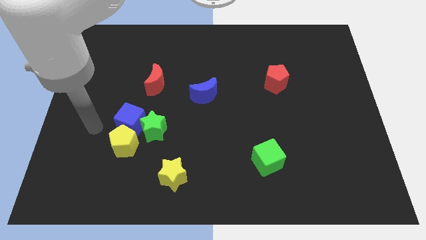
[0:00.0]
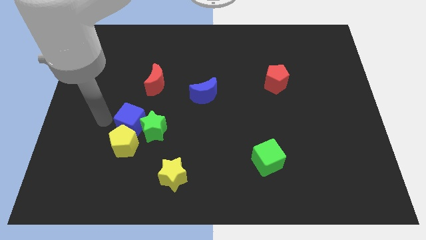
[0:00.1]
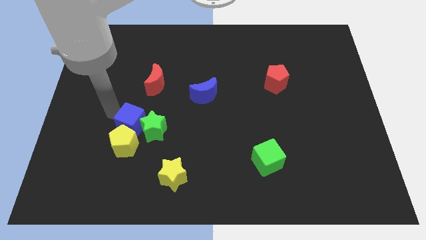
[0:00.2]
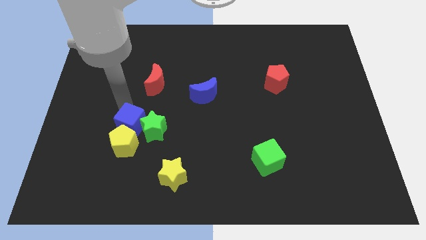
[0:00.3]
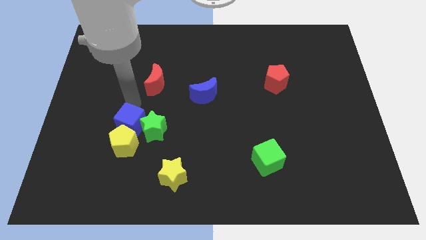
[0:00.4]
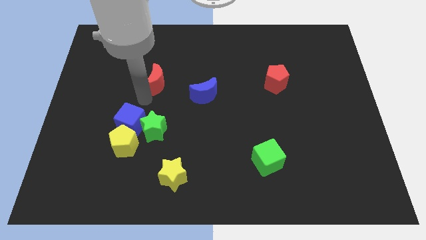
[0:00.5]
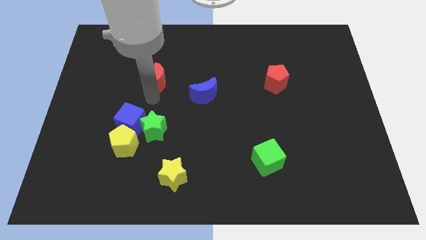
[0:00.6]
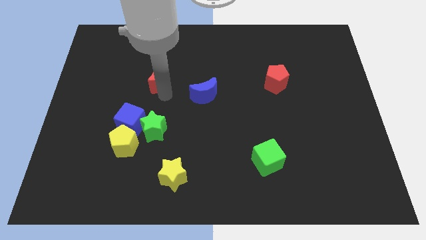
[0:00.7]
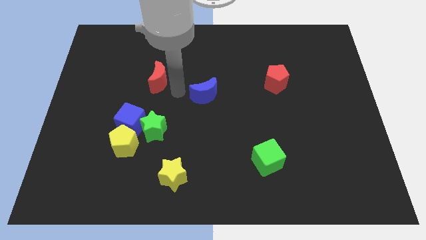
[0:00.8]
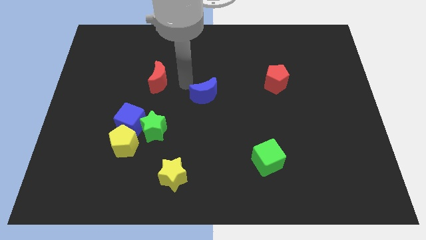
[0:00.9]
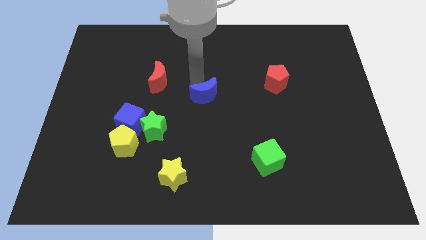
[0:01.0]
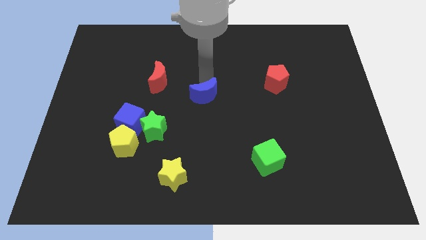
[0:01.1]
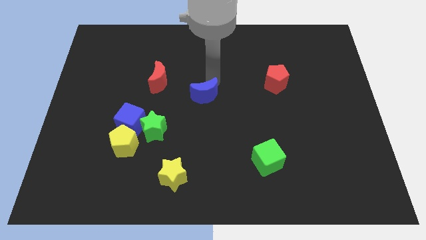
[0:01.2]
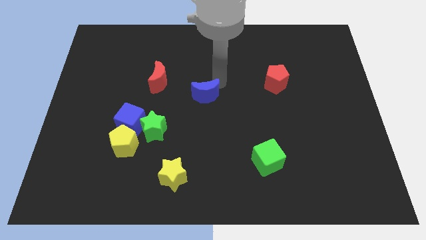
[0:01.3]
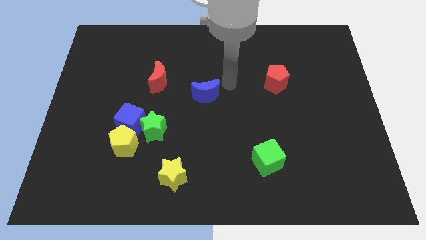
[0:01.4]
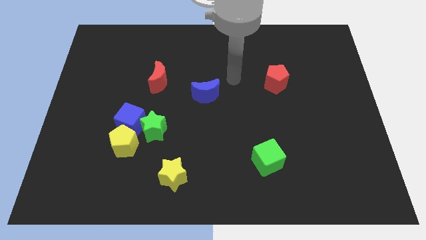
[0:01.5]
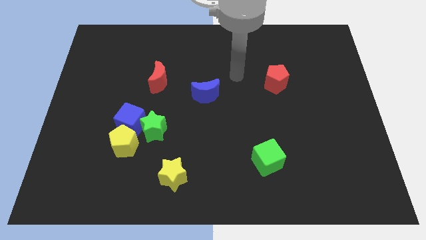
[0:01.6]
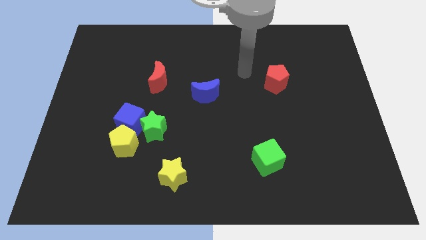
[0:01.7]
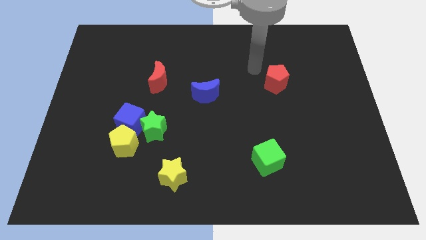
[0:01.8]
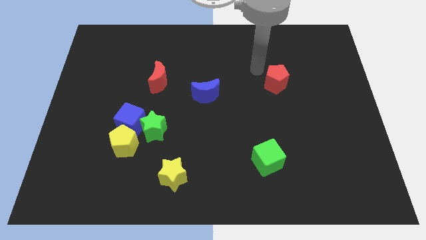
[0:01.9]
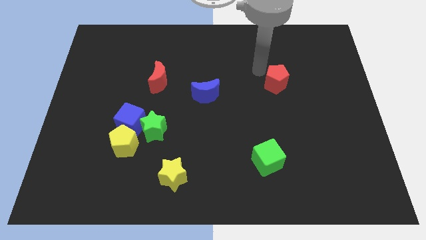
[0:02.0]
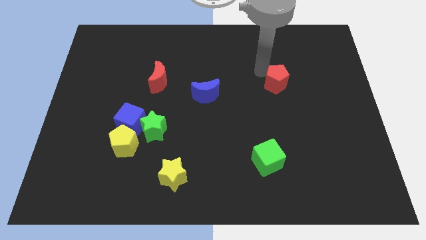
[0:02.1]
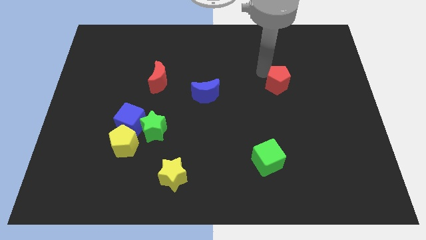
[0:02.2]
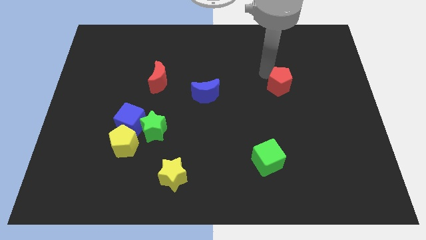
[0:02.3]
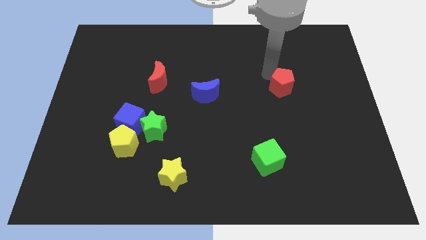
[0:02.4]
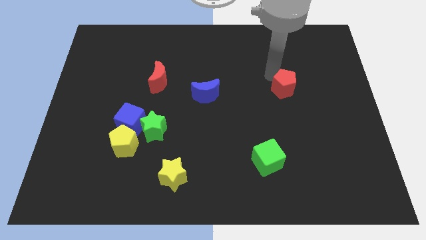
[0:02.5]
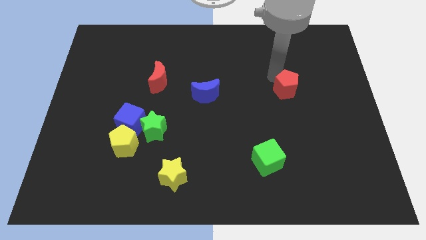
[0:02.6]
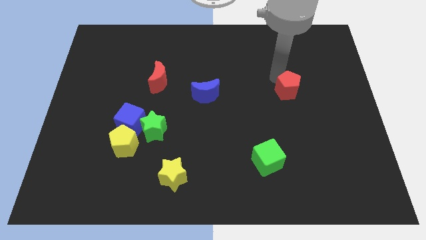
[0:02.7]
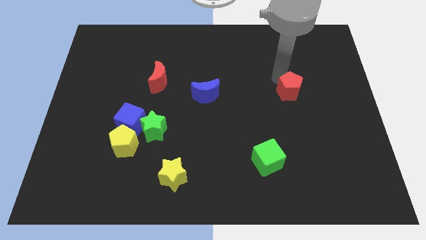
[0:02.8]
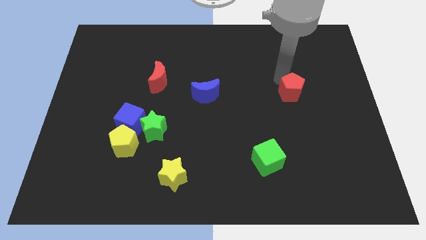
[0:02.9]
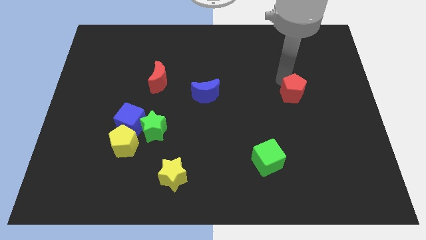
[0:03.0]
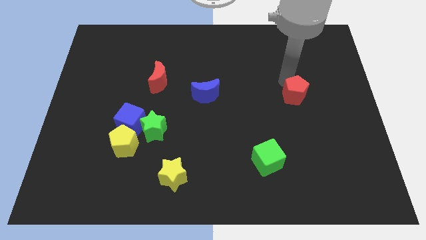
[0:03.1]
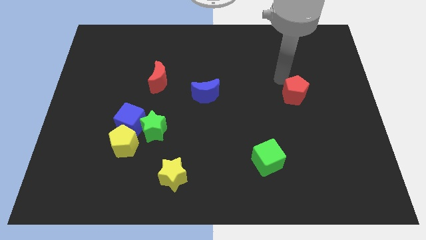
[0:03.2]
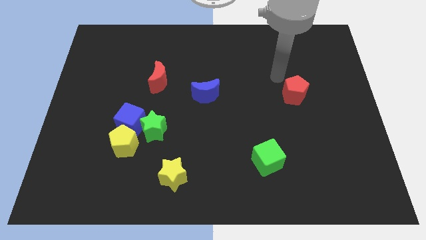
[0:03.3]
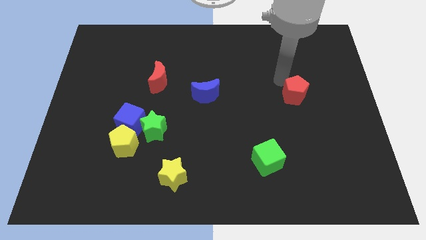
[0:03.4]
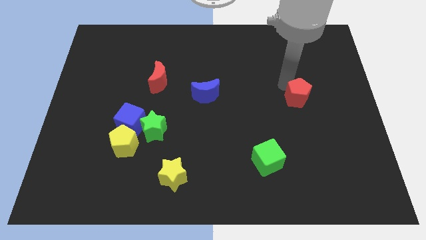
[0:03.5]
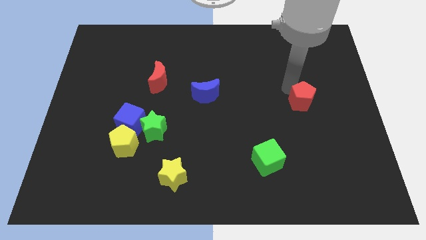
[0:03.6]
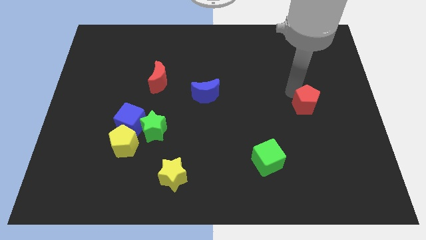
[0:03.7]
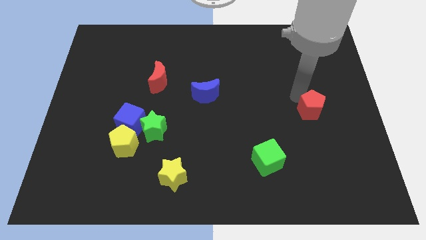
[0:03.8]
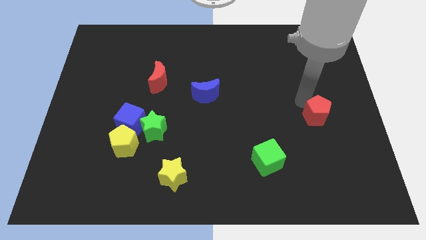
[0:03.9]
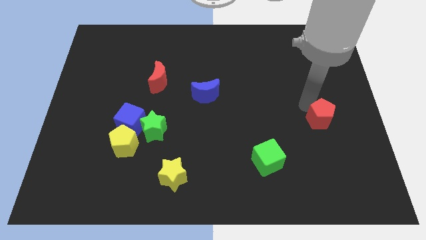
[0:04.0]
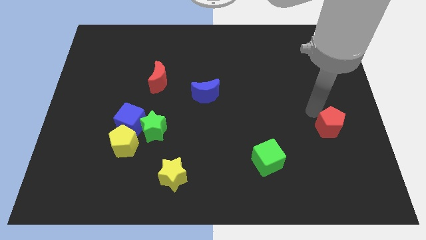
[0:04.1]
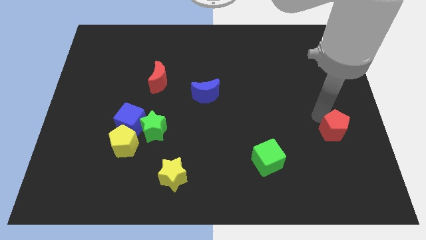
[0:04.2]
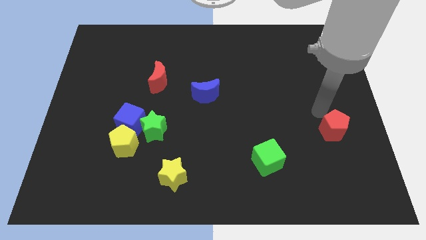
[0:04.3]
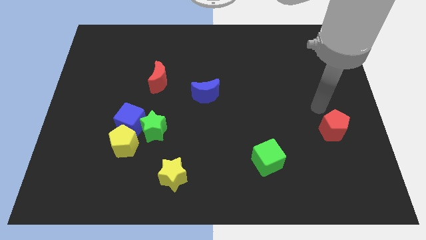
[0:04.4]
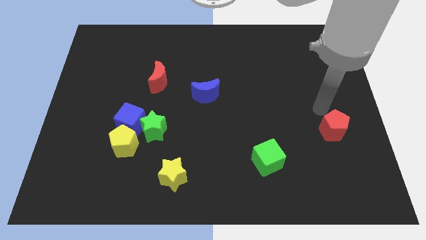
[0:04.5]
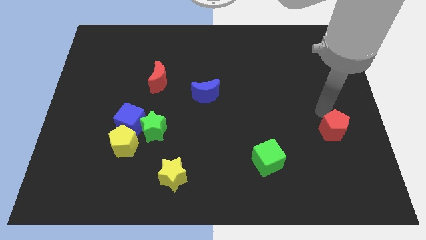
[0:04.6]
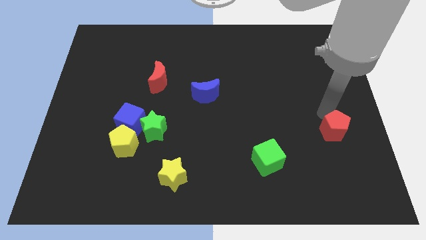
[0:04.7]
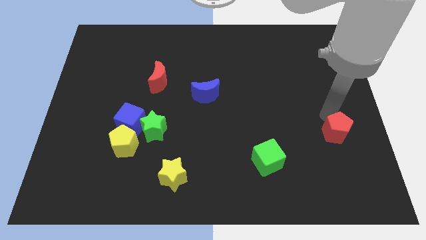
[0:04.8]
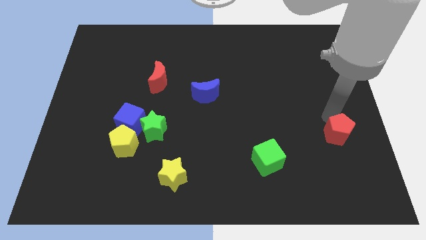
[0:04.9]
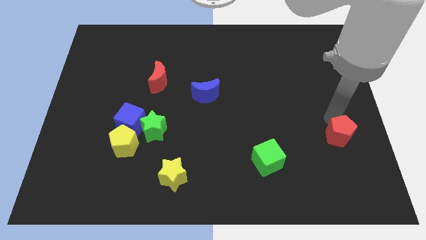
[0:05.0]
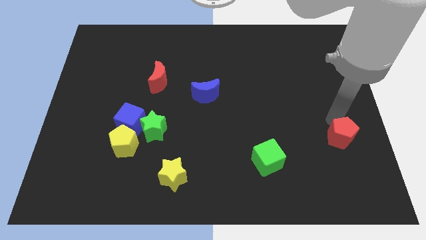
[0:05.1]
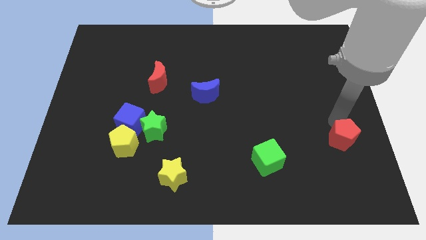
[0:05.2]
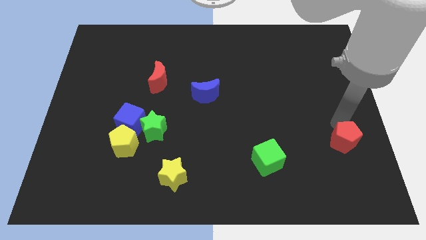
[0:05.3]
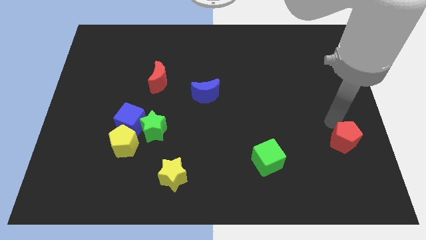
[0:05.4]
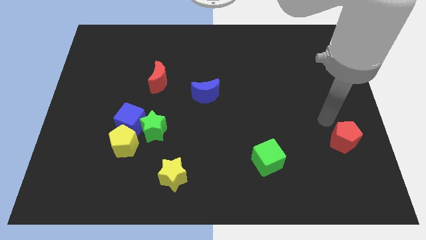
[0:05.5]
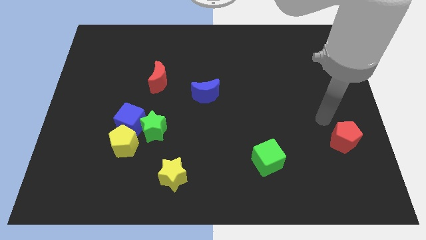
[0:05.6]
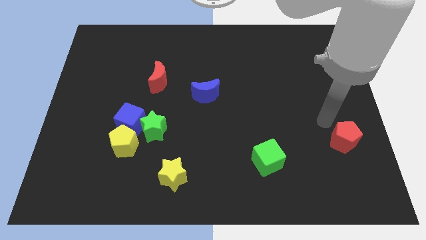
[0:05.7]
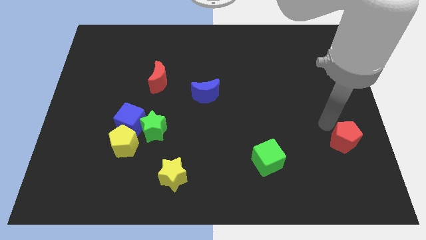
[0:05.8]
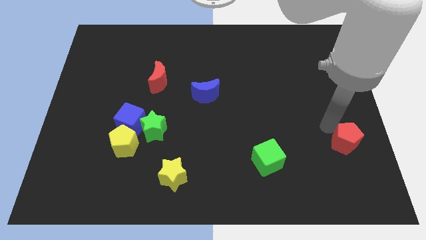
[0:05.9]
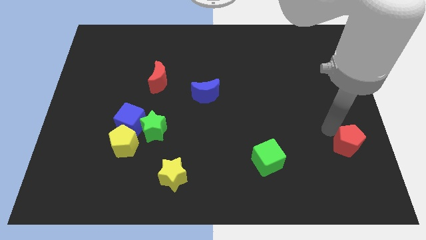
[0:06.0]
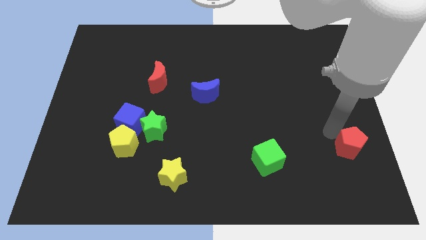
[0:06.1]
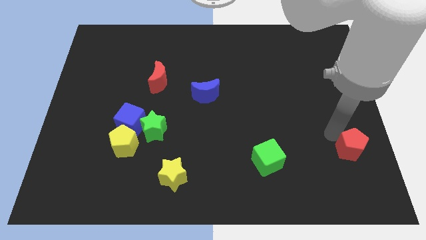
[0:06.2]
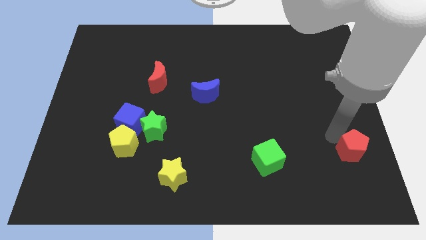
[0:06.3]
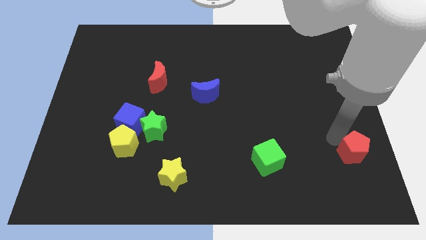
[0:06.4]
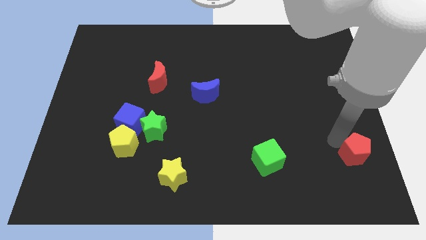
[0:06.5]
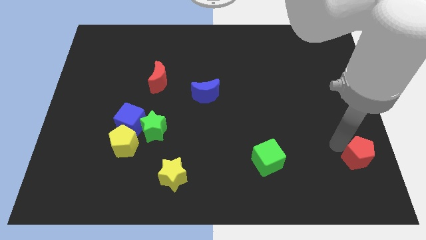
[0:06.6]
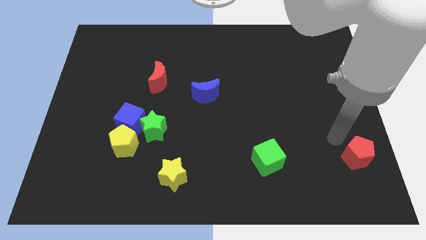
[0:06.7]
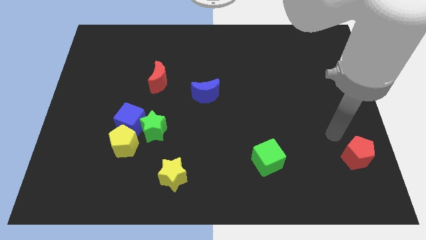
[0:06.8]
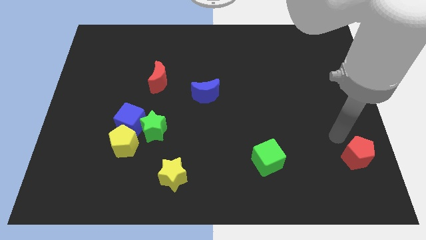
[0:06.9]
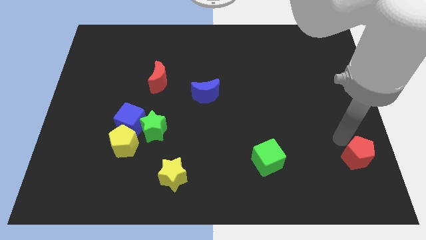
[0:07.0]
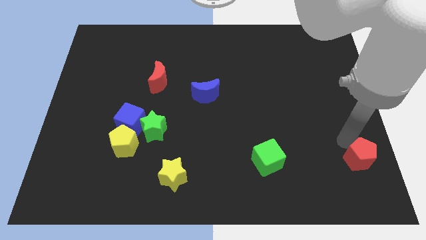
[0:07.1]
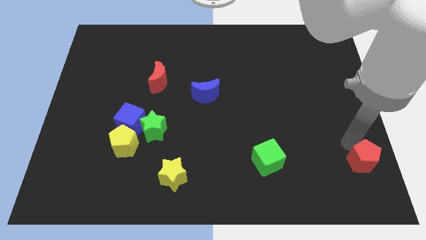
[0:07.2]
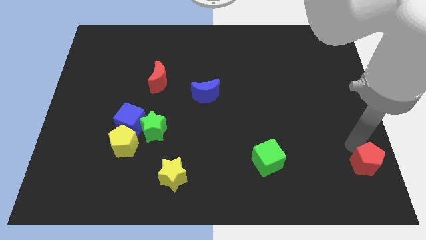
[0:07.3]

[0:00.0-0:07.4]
put the red pentagon to the bottom right
